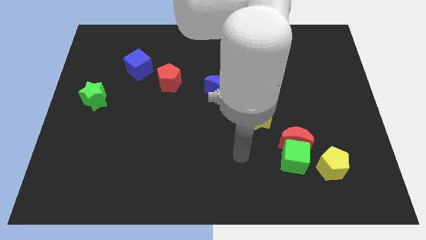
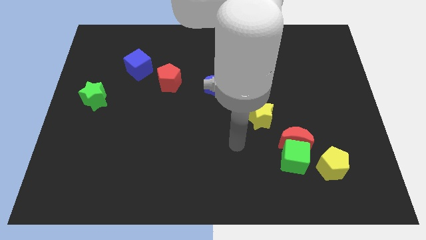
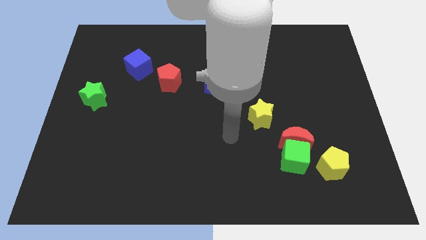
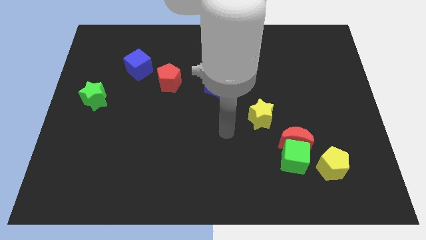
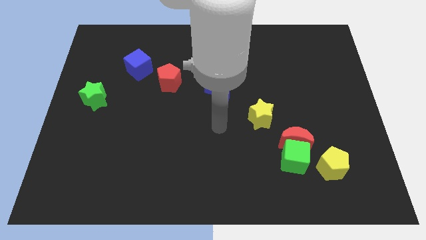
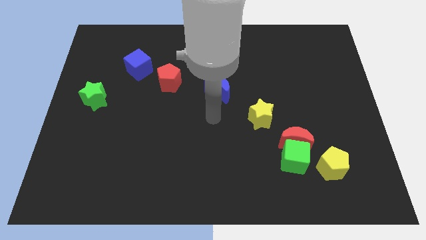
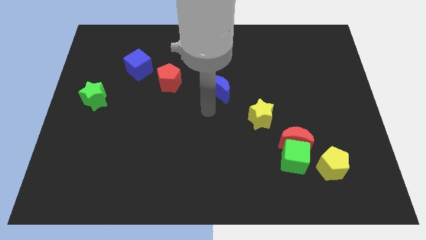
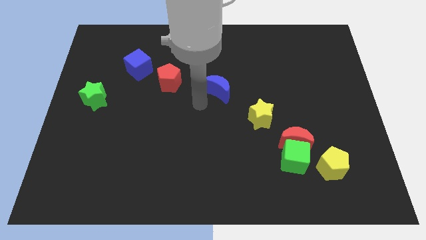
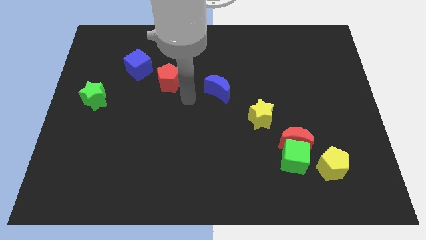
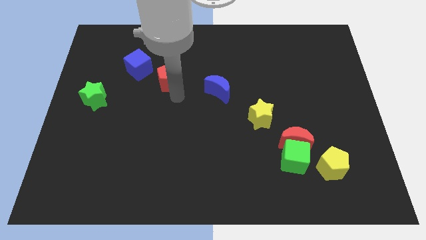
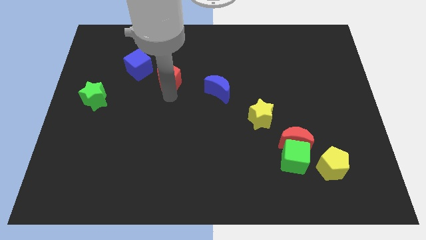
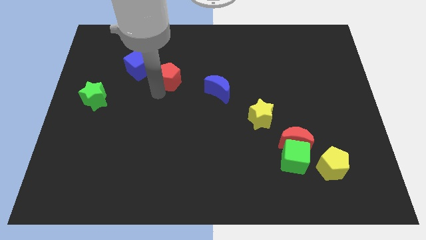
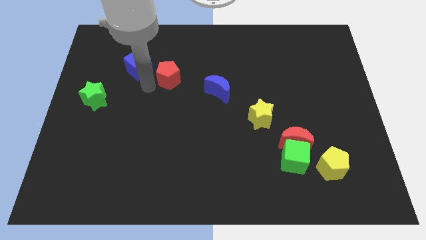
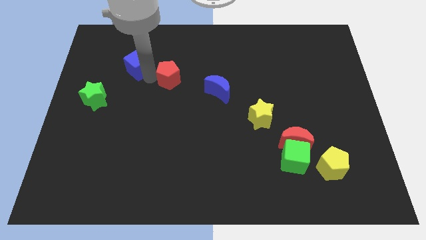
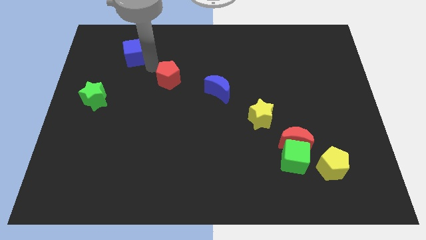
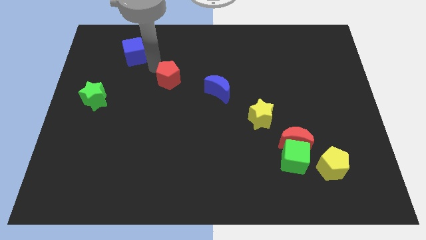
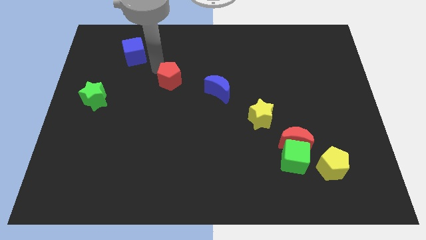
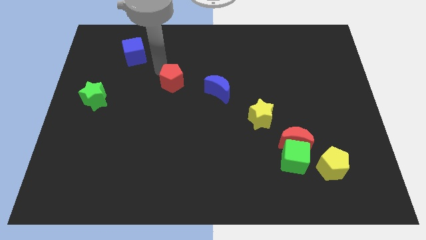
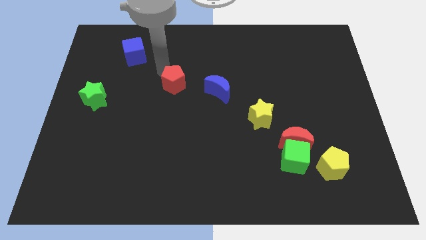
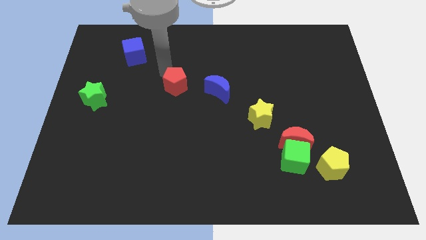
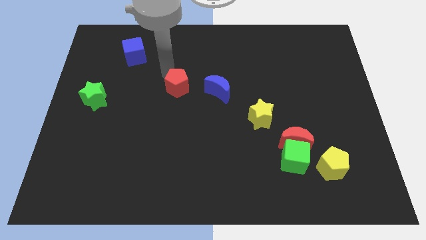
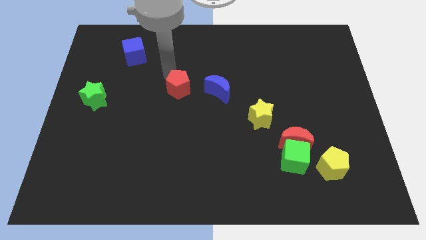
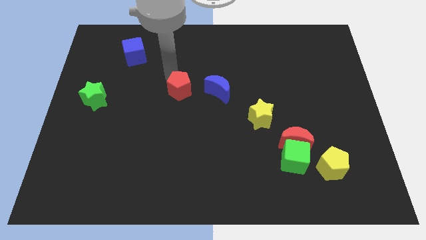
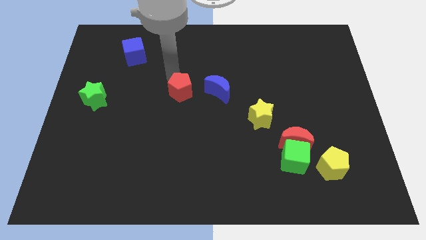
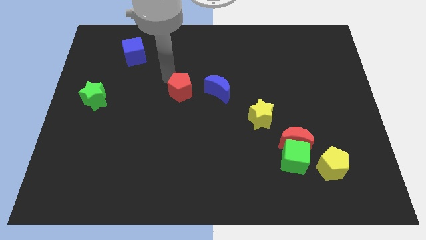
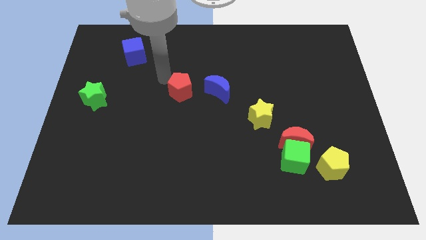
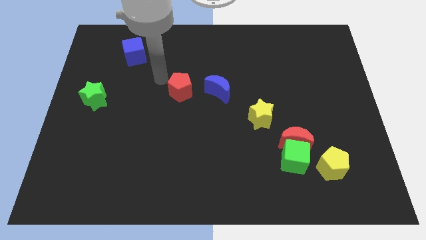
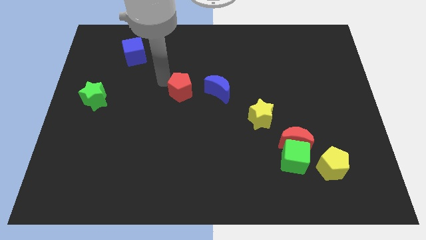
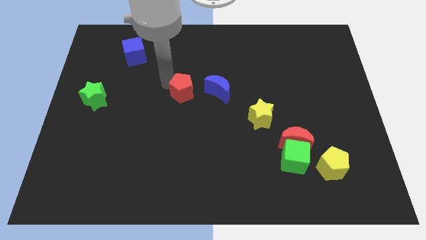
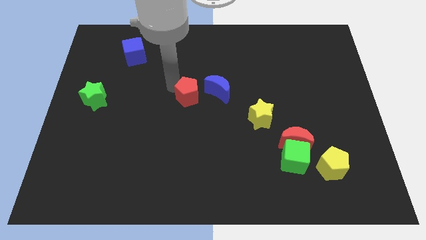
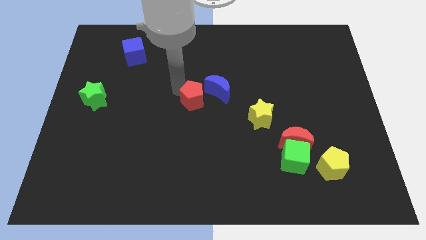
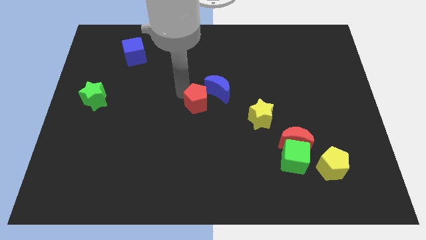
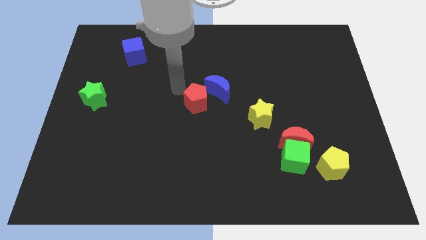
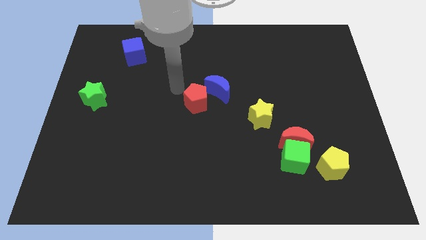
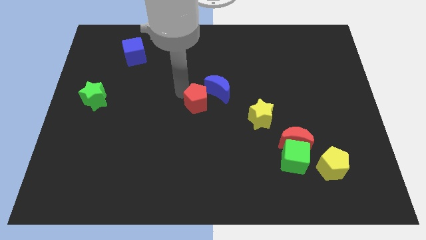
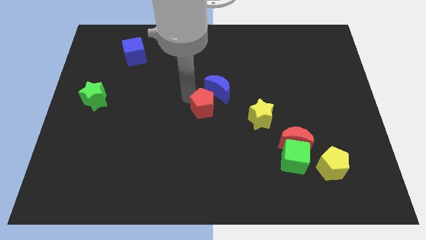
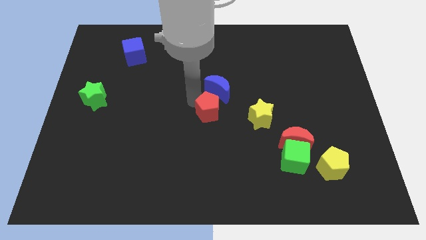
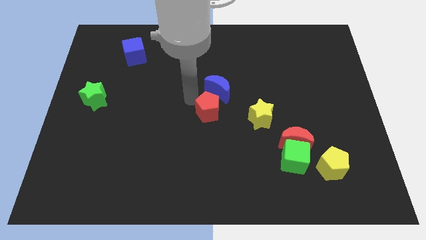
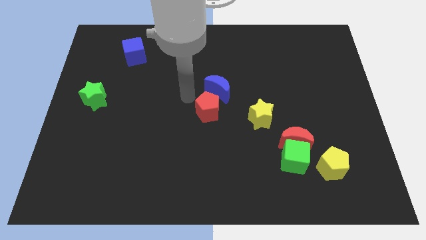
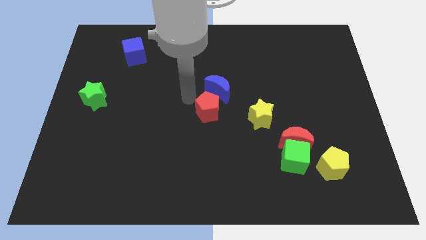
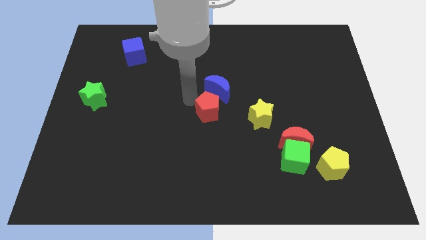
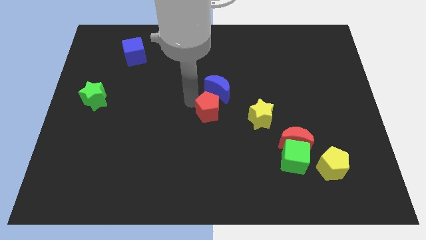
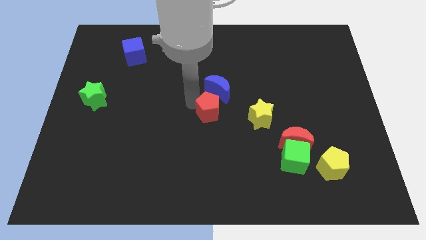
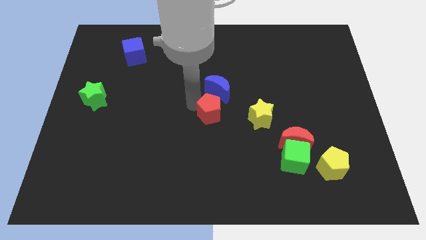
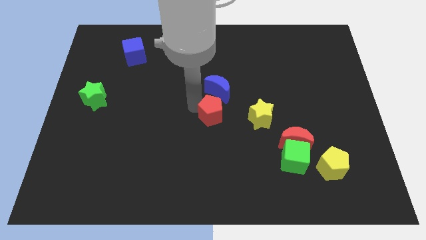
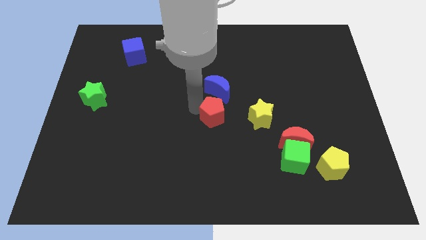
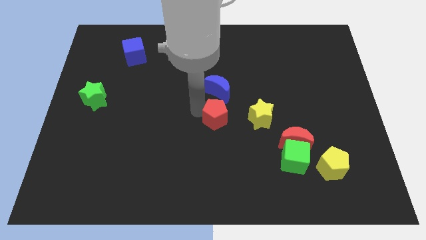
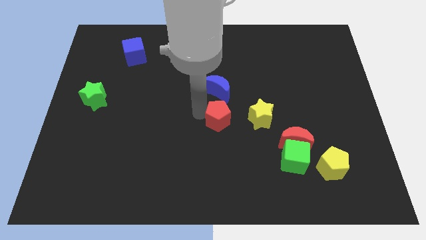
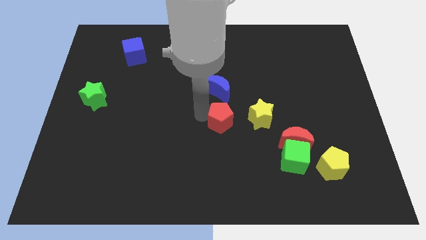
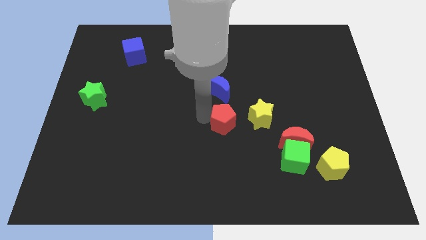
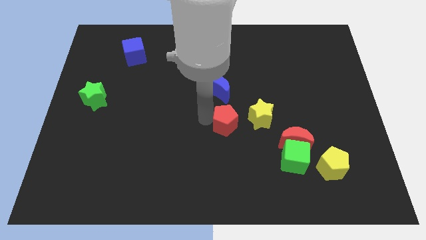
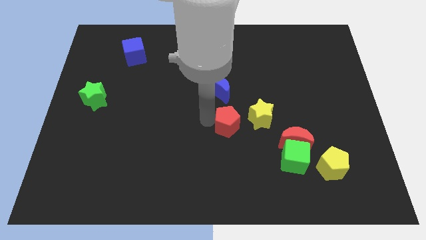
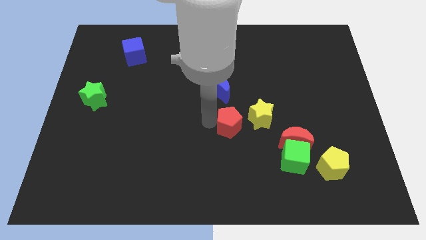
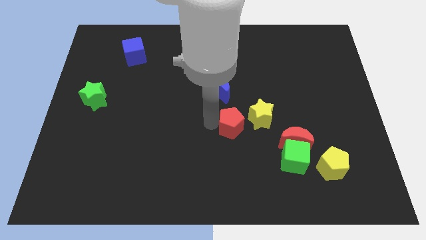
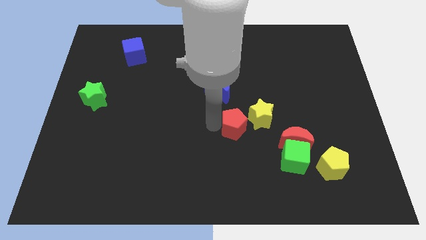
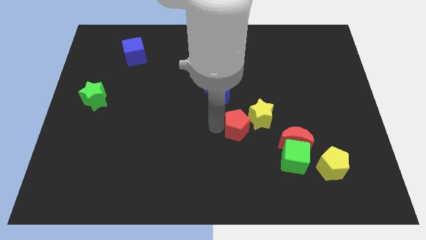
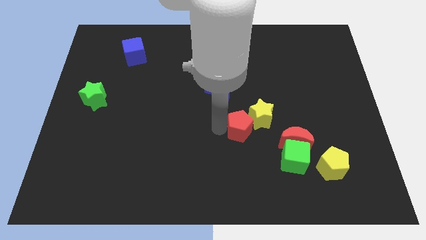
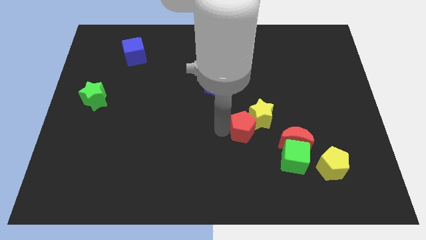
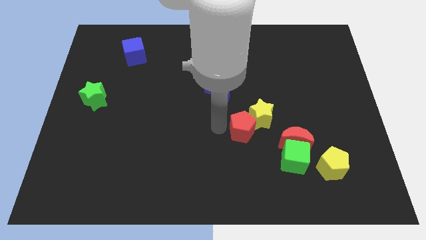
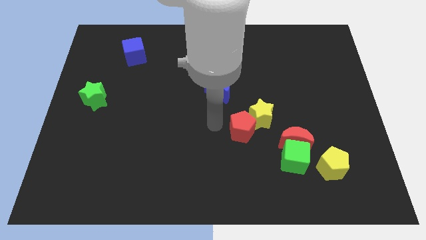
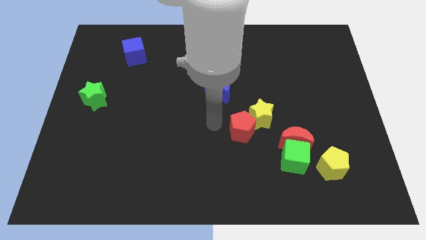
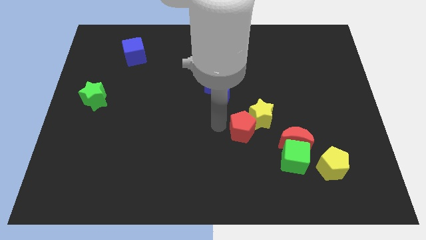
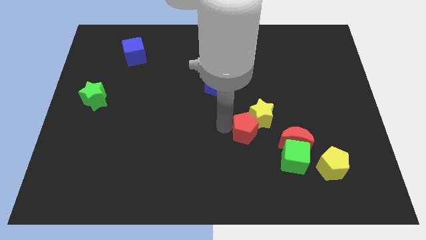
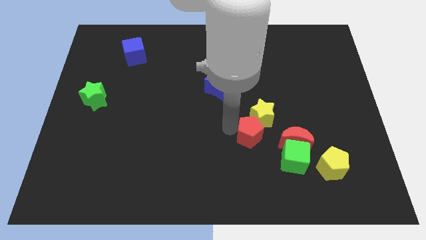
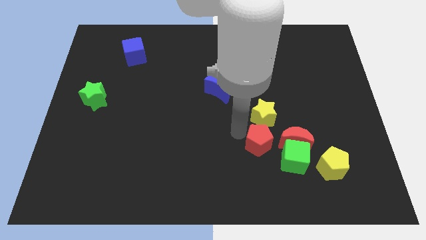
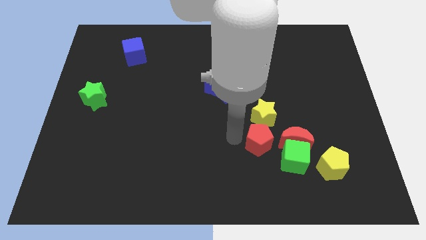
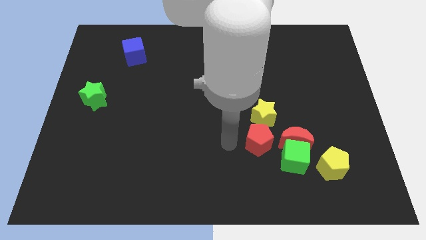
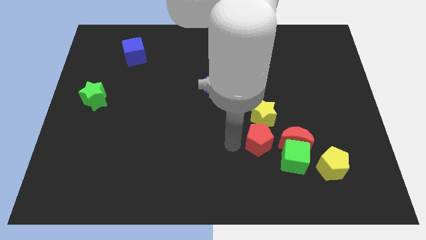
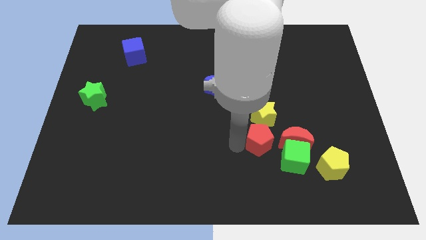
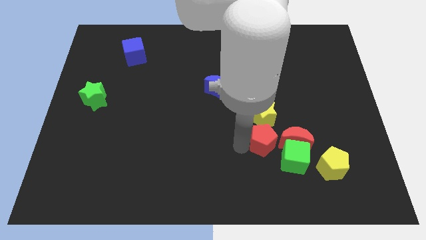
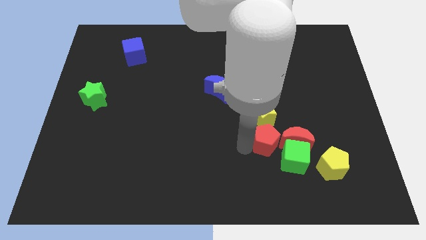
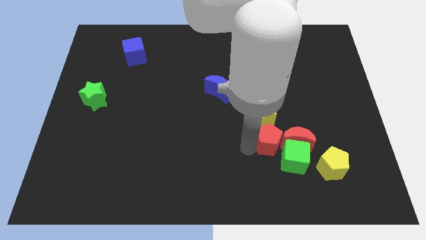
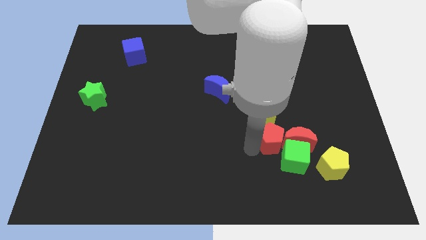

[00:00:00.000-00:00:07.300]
put the red pentagon to the red moon

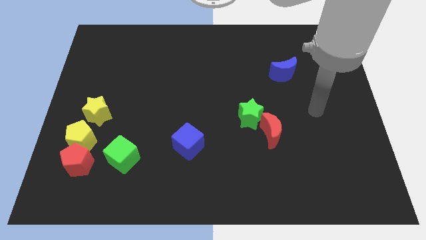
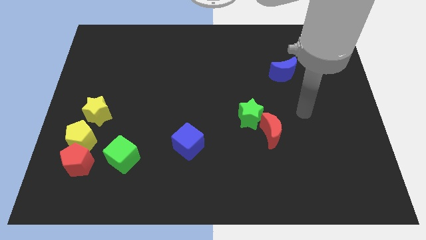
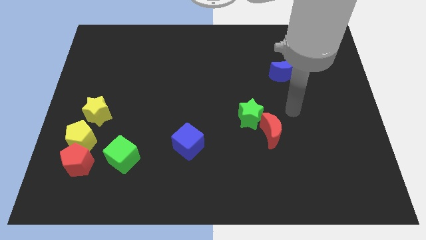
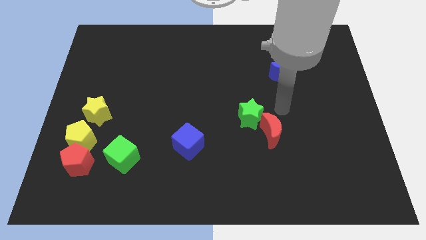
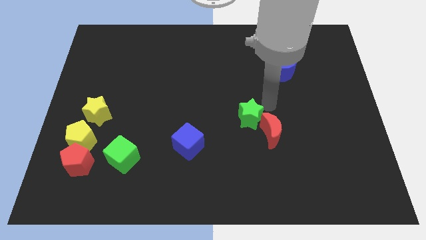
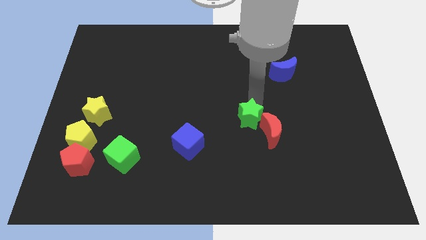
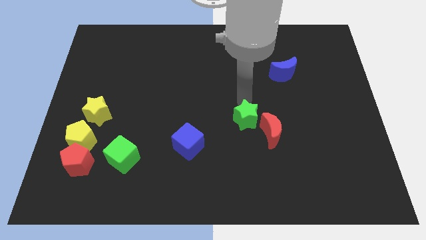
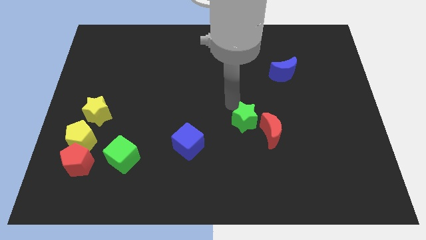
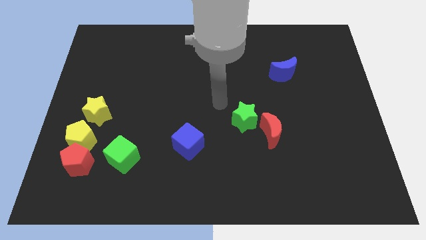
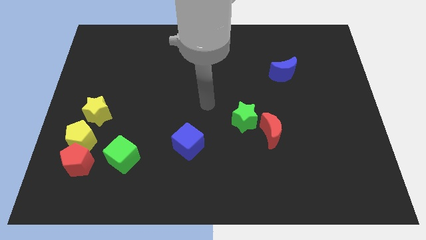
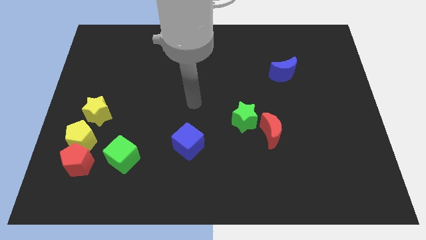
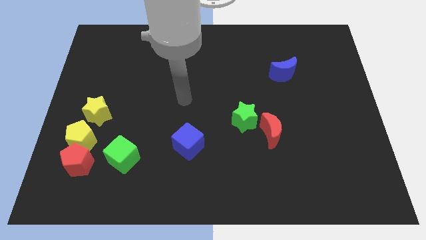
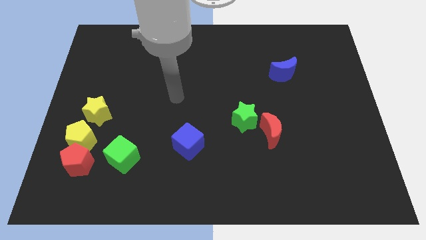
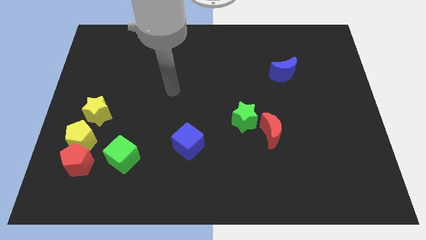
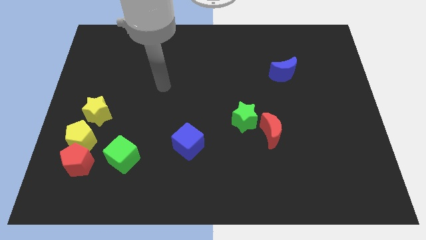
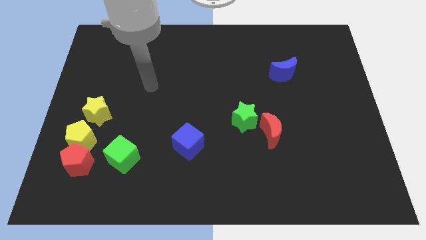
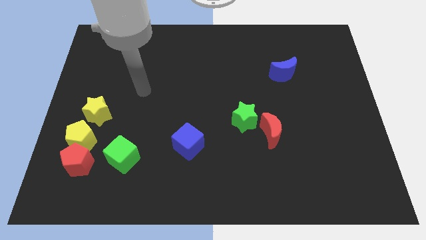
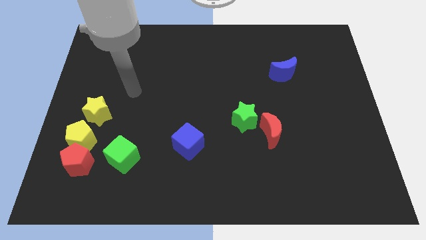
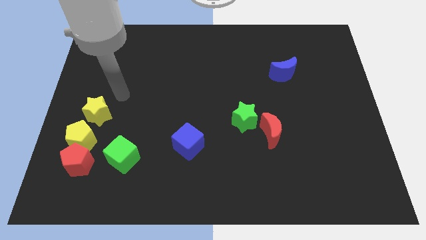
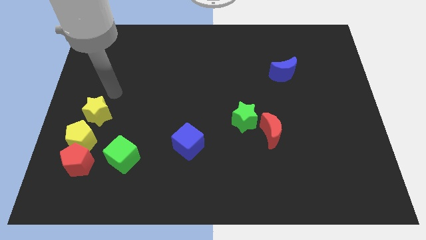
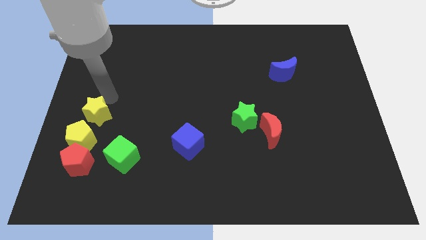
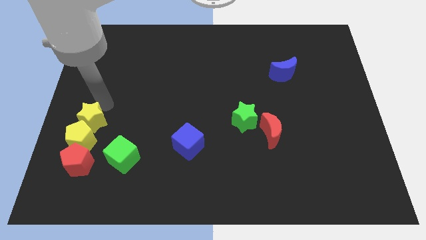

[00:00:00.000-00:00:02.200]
slide the yellow star to the yellow pentagon
